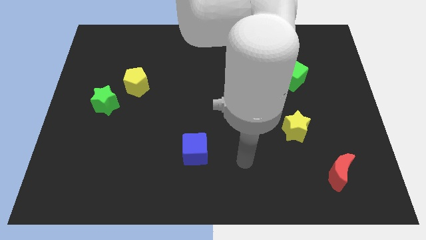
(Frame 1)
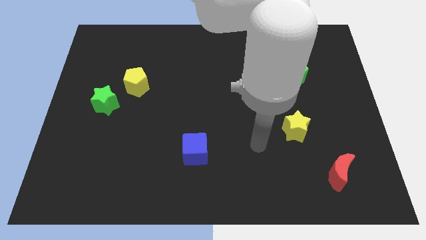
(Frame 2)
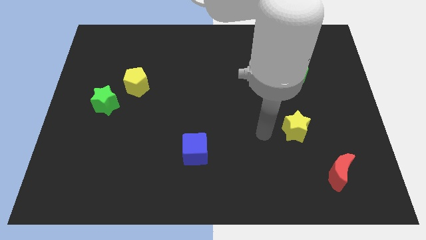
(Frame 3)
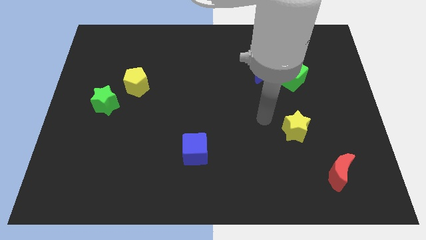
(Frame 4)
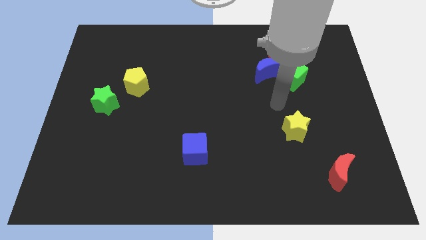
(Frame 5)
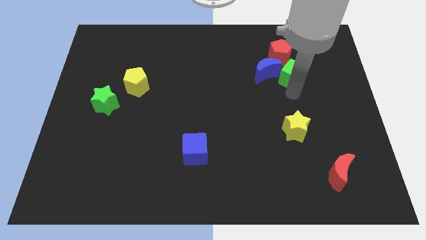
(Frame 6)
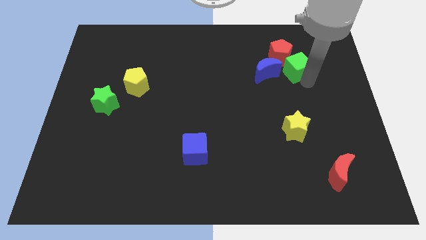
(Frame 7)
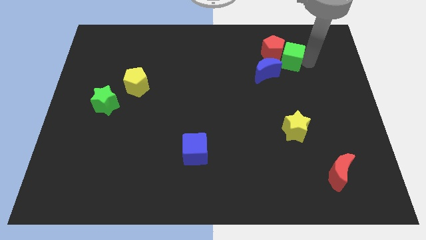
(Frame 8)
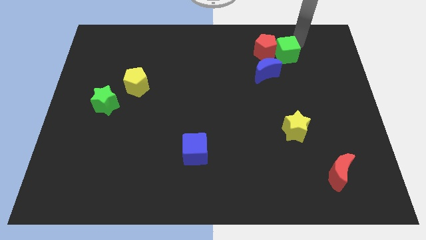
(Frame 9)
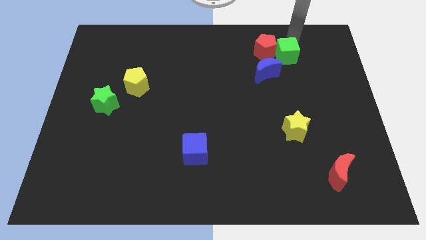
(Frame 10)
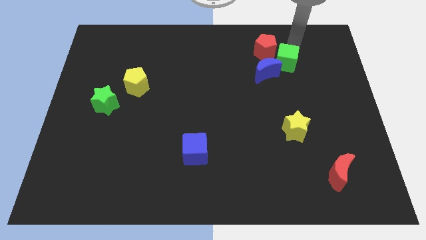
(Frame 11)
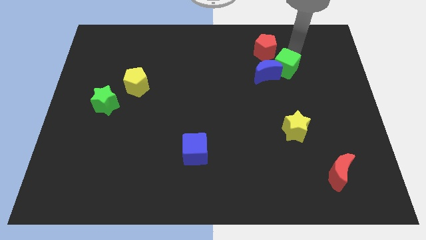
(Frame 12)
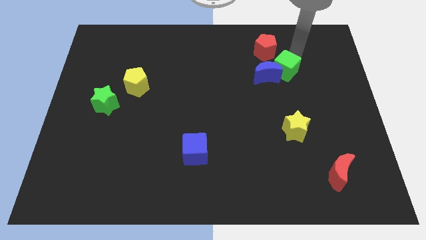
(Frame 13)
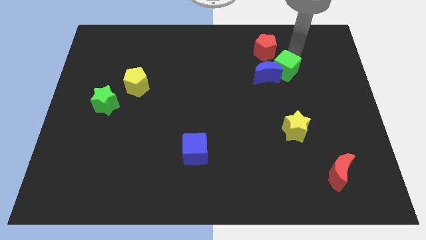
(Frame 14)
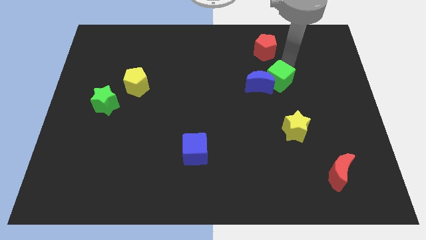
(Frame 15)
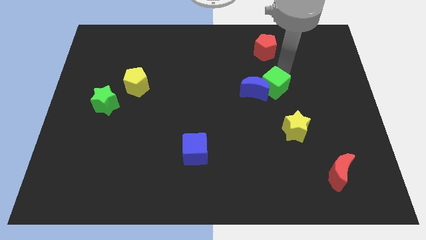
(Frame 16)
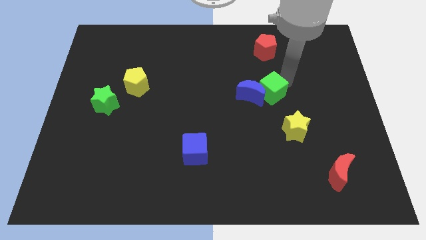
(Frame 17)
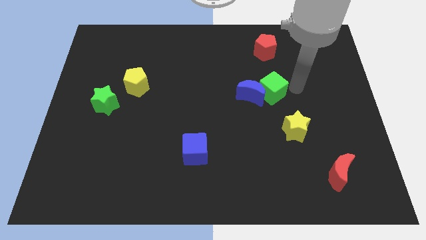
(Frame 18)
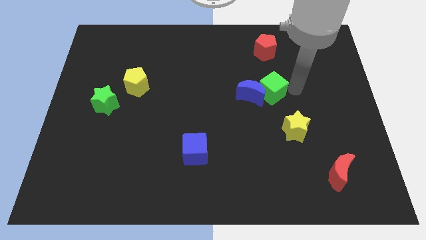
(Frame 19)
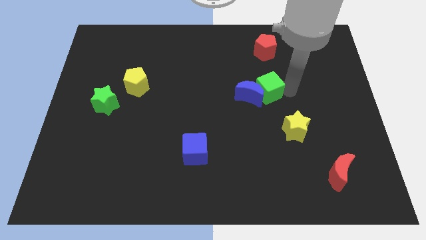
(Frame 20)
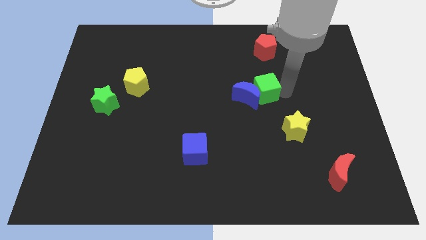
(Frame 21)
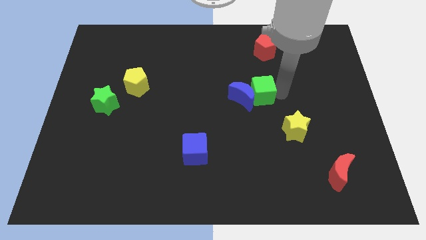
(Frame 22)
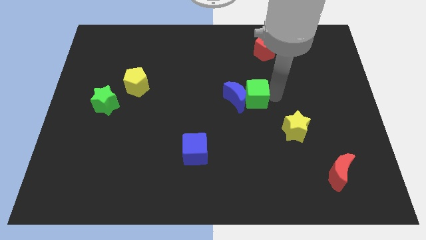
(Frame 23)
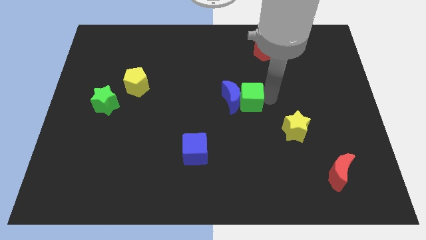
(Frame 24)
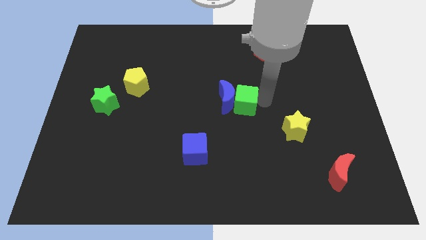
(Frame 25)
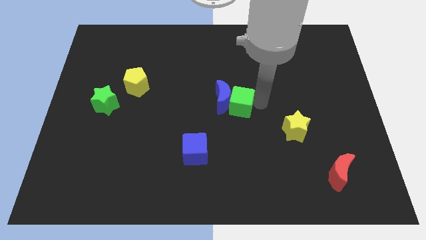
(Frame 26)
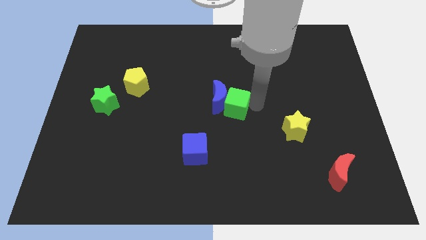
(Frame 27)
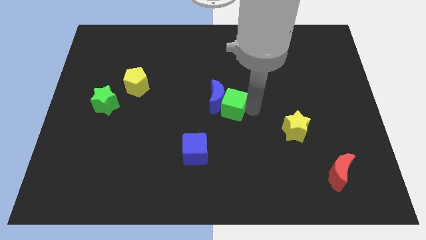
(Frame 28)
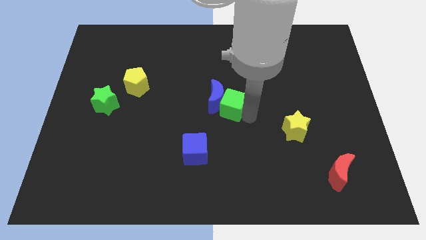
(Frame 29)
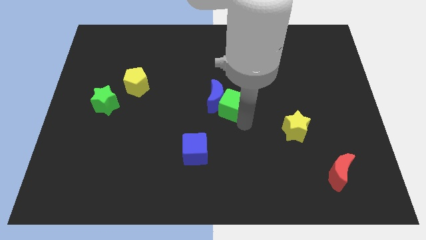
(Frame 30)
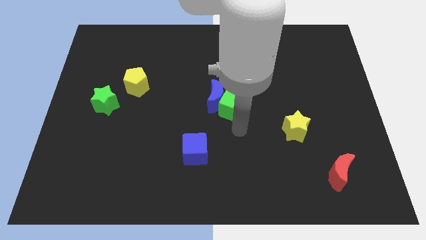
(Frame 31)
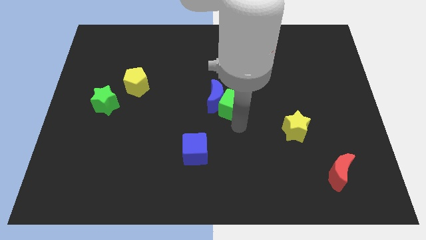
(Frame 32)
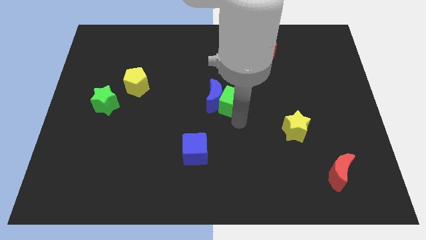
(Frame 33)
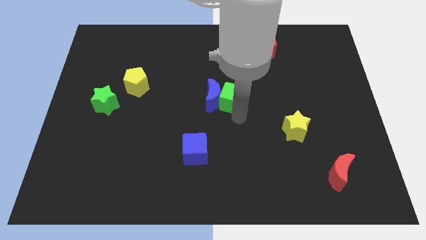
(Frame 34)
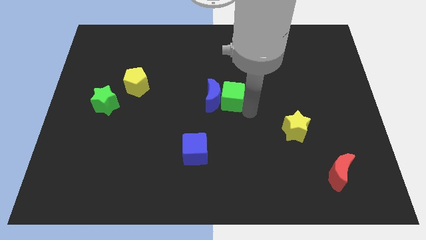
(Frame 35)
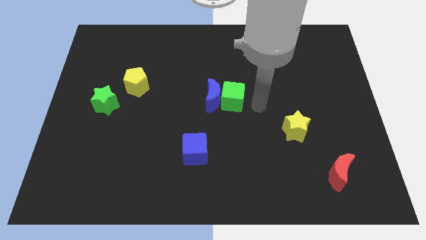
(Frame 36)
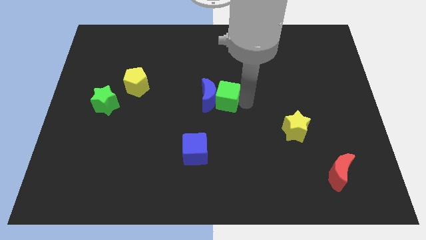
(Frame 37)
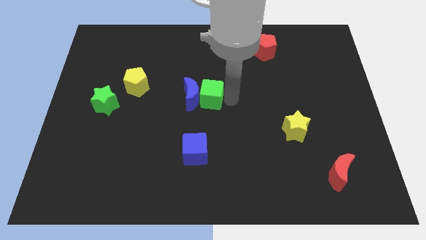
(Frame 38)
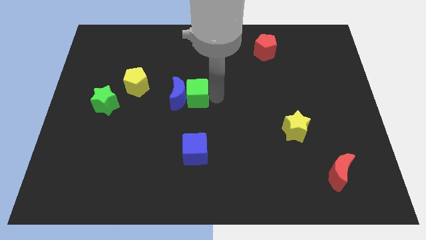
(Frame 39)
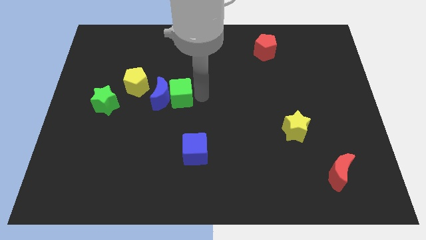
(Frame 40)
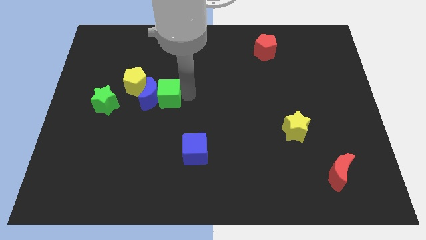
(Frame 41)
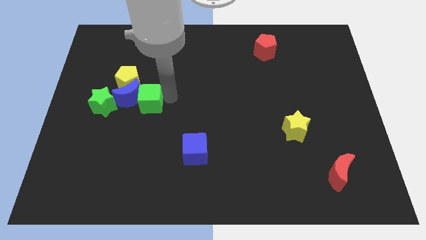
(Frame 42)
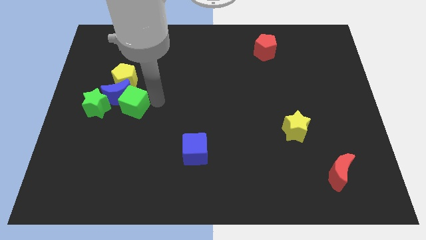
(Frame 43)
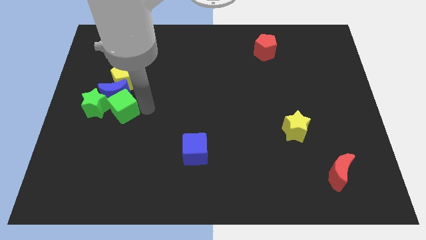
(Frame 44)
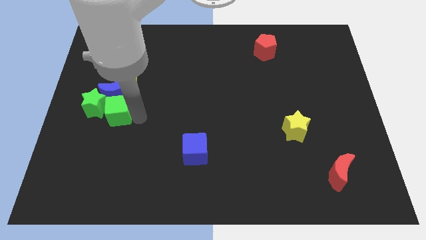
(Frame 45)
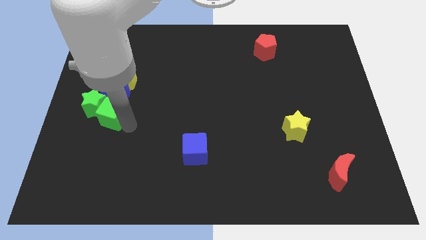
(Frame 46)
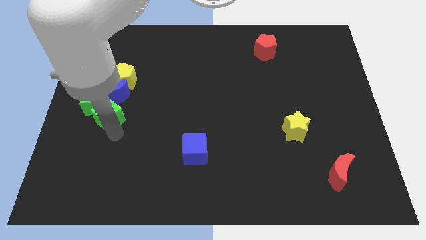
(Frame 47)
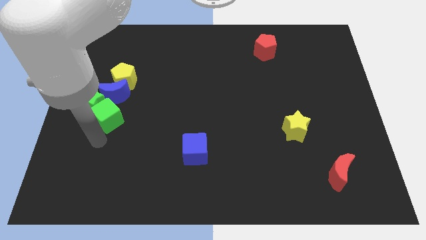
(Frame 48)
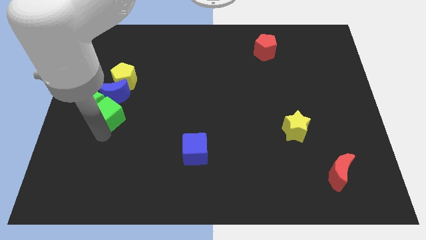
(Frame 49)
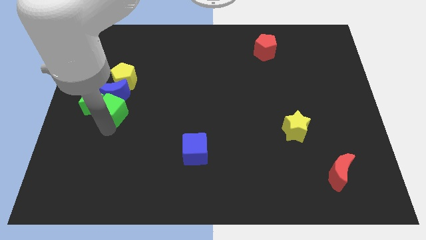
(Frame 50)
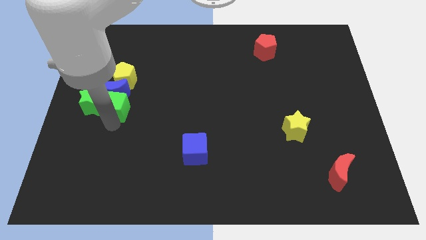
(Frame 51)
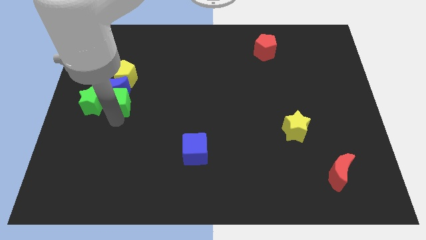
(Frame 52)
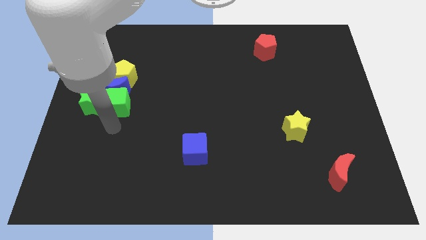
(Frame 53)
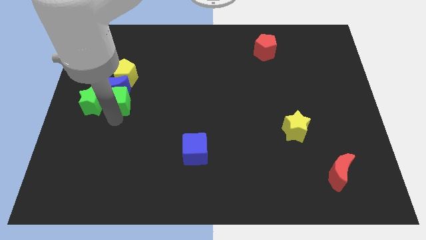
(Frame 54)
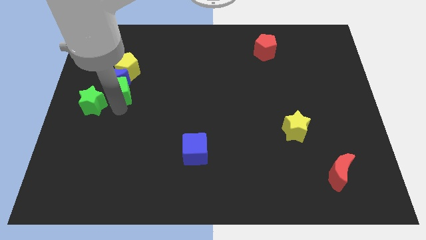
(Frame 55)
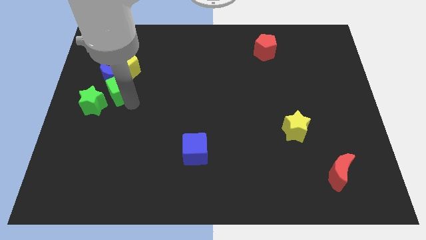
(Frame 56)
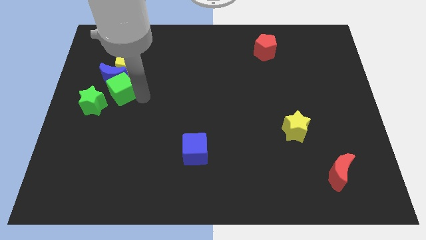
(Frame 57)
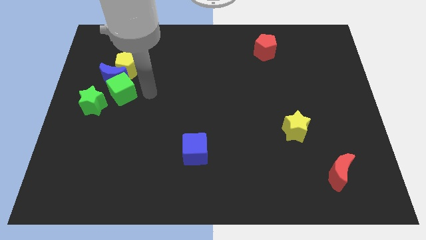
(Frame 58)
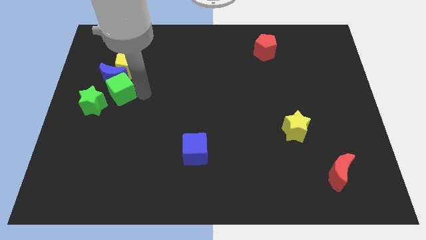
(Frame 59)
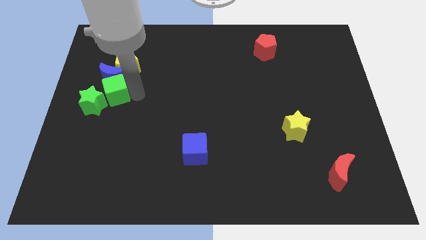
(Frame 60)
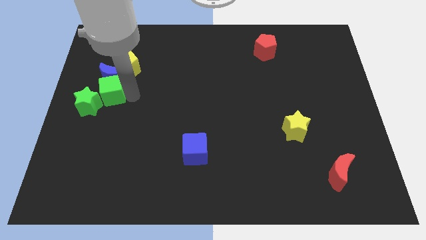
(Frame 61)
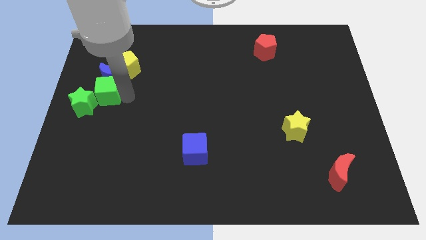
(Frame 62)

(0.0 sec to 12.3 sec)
push the green cube to the center left

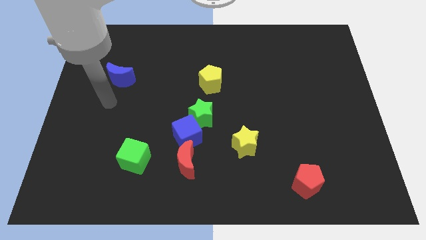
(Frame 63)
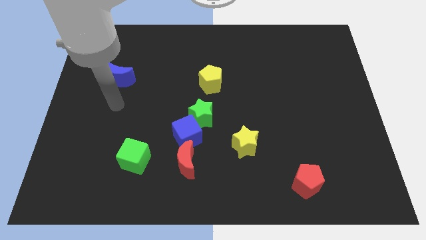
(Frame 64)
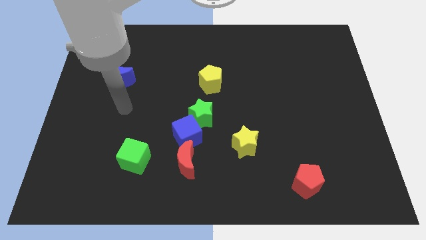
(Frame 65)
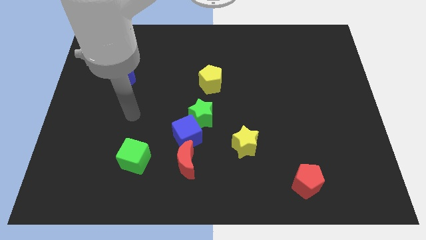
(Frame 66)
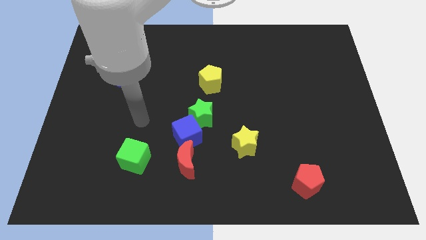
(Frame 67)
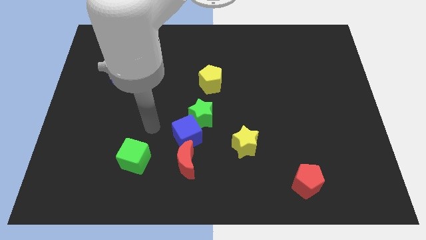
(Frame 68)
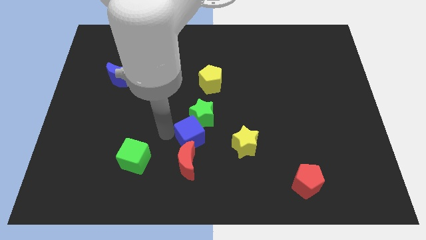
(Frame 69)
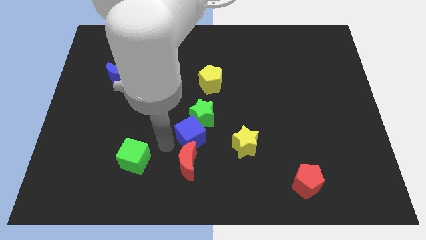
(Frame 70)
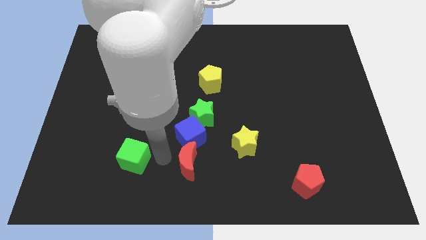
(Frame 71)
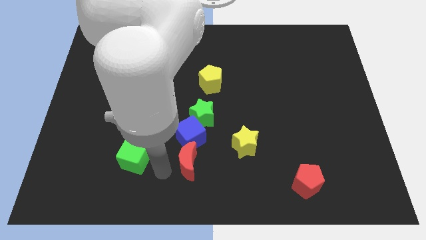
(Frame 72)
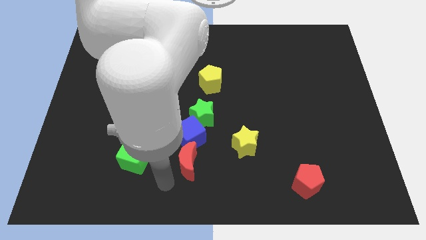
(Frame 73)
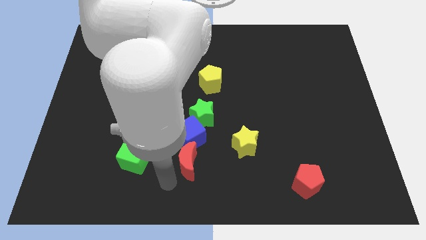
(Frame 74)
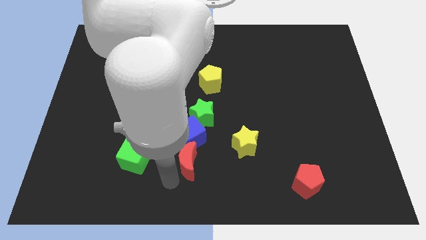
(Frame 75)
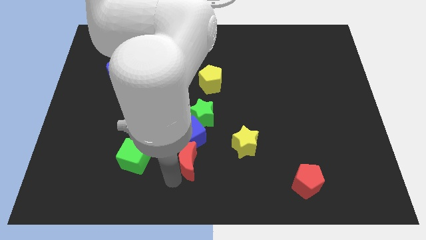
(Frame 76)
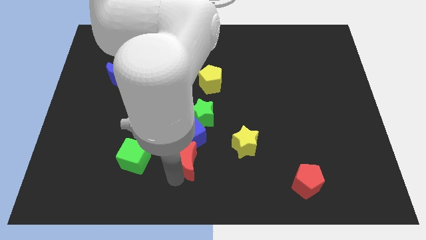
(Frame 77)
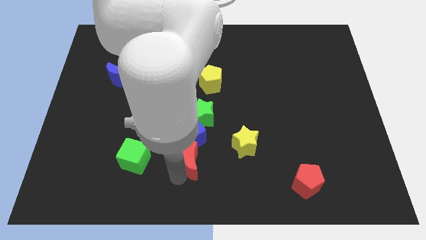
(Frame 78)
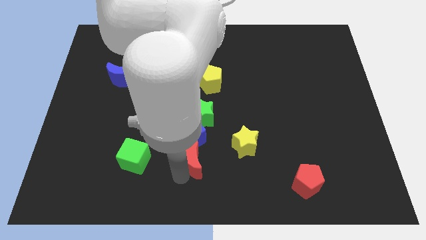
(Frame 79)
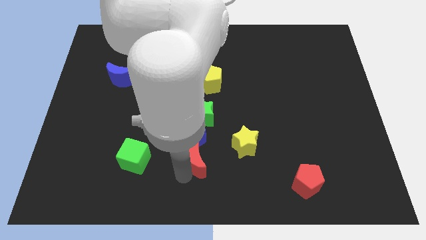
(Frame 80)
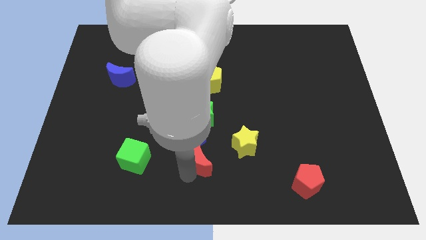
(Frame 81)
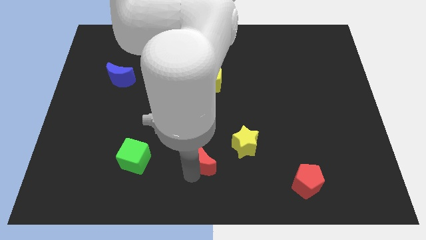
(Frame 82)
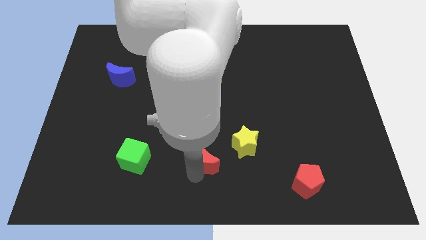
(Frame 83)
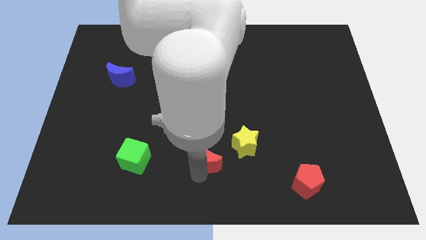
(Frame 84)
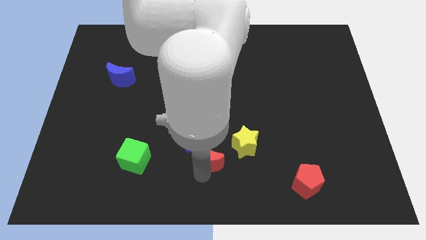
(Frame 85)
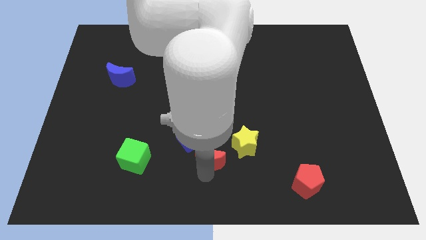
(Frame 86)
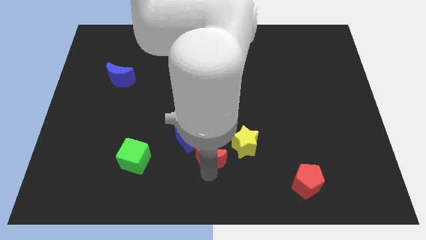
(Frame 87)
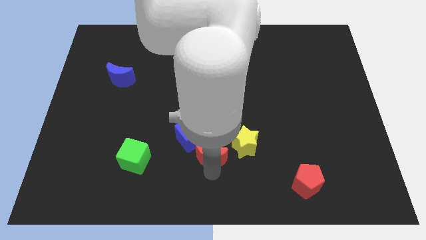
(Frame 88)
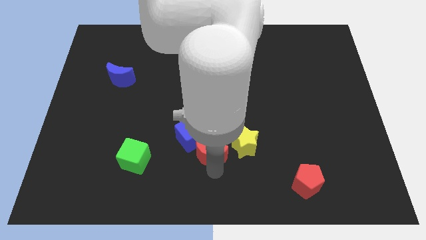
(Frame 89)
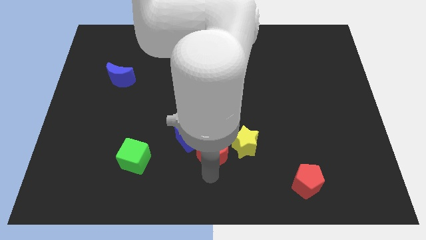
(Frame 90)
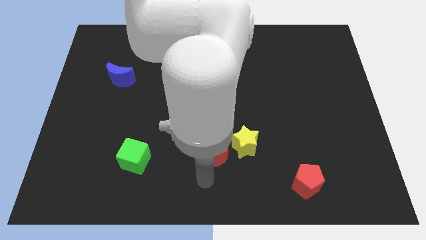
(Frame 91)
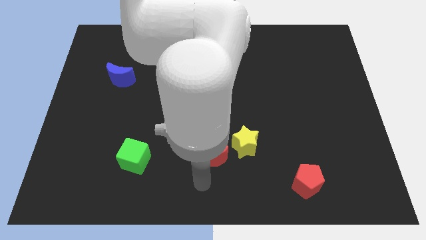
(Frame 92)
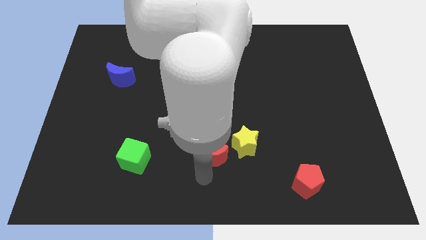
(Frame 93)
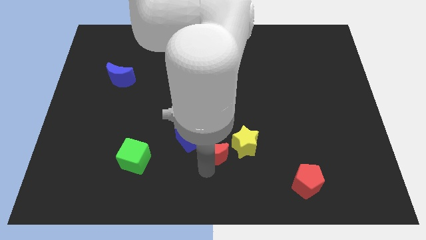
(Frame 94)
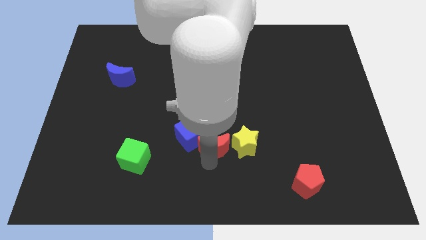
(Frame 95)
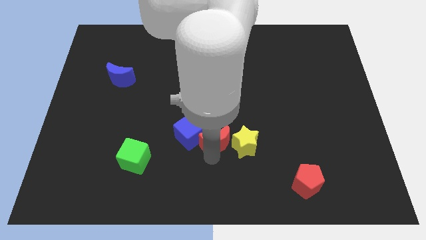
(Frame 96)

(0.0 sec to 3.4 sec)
push the red moon to the middle of the board
